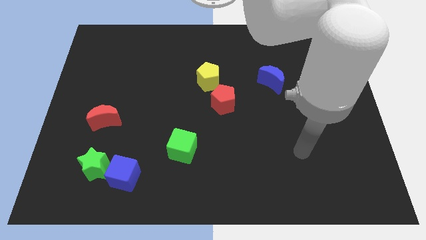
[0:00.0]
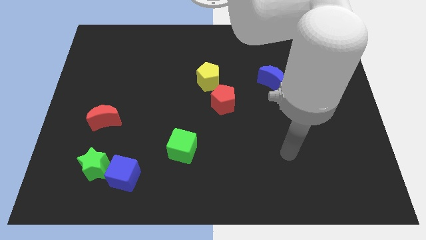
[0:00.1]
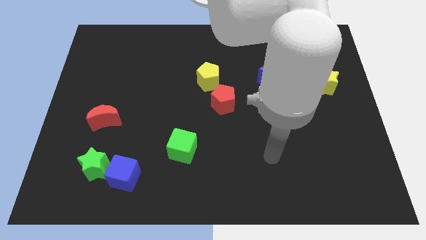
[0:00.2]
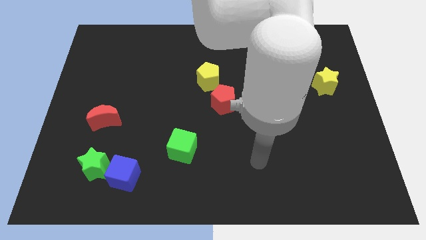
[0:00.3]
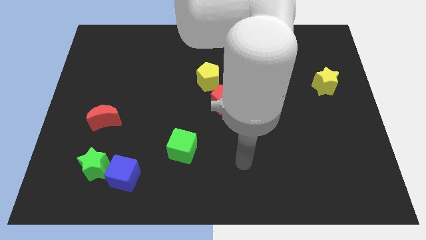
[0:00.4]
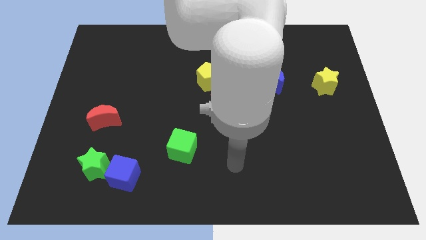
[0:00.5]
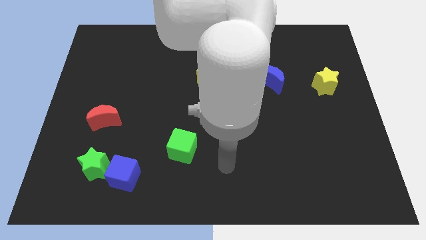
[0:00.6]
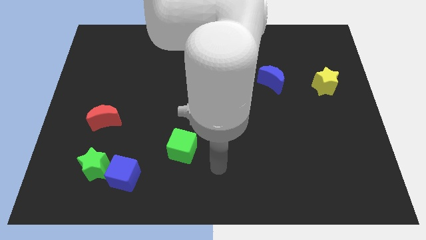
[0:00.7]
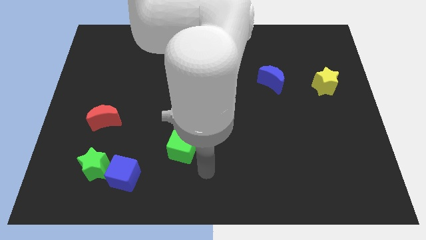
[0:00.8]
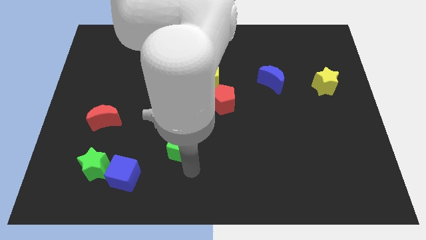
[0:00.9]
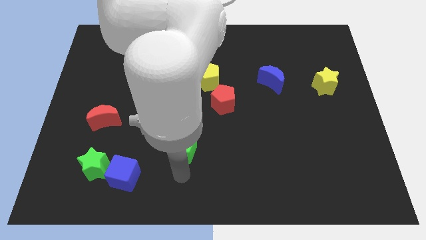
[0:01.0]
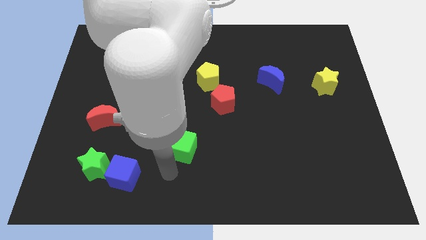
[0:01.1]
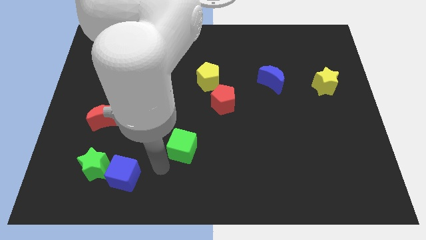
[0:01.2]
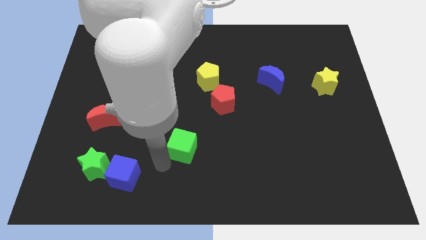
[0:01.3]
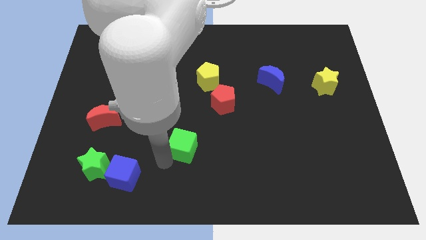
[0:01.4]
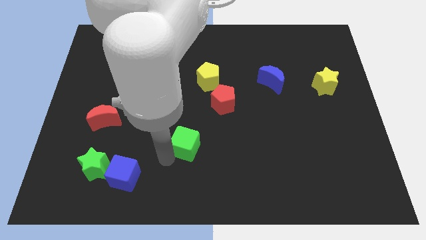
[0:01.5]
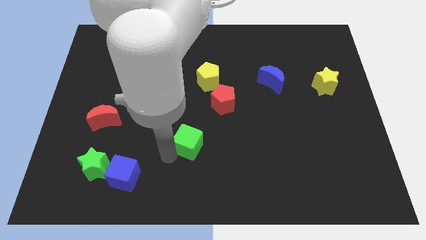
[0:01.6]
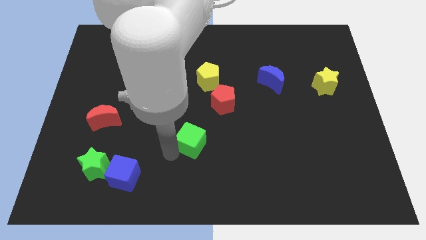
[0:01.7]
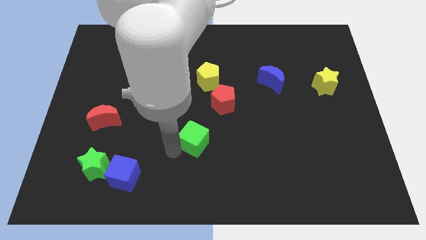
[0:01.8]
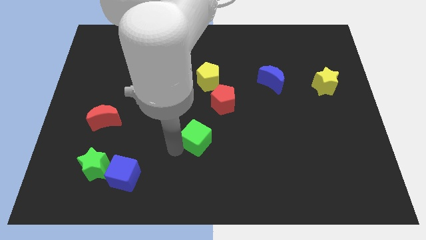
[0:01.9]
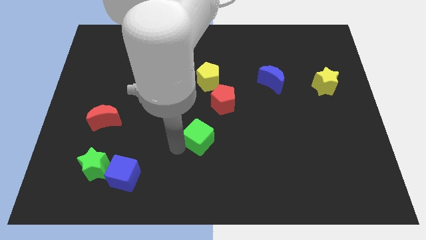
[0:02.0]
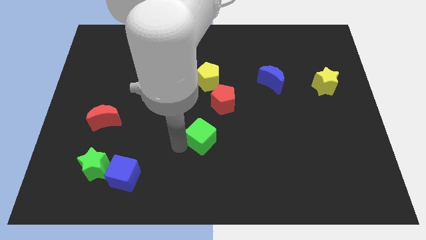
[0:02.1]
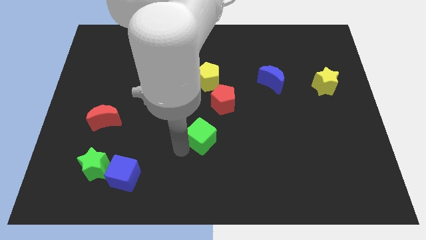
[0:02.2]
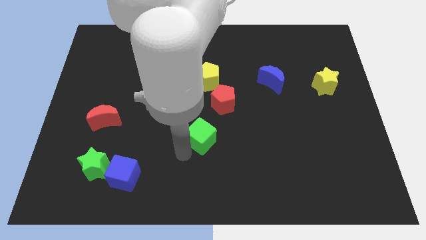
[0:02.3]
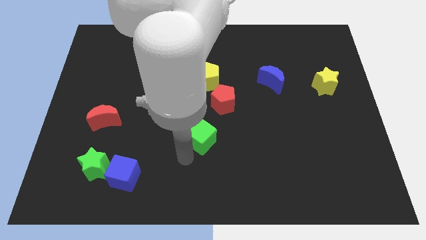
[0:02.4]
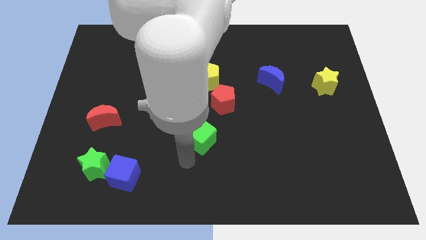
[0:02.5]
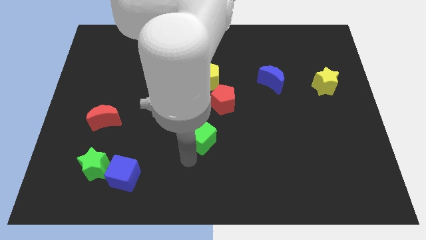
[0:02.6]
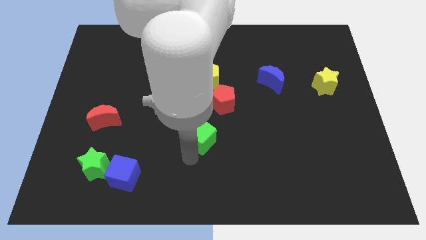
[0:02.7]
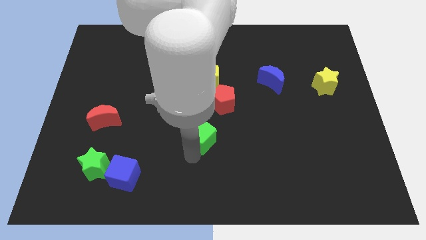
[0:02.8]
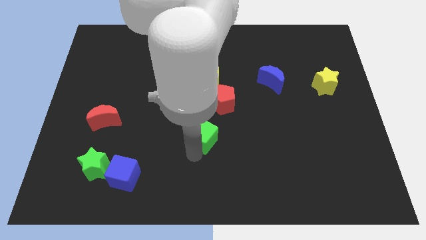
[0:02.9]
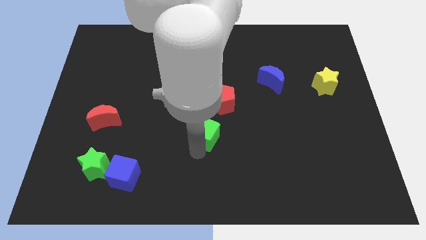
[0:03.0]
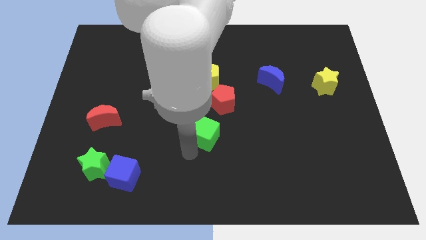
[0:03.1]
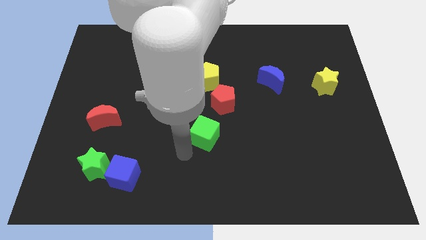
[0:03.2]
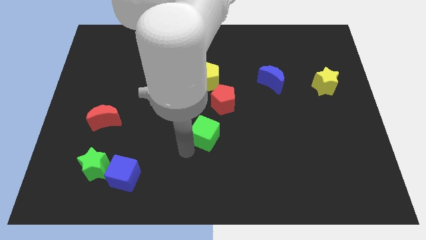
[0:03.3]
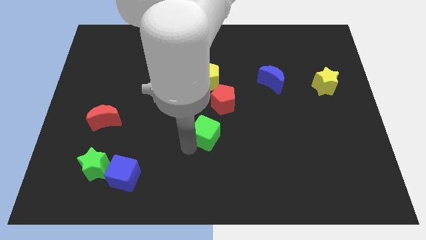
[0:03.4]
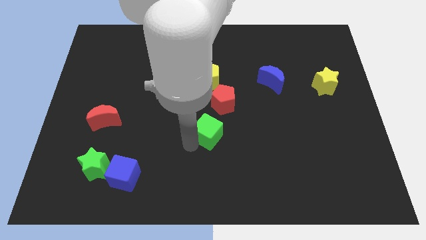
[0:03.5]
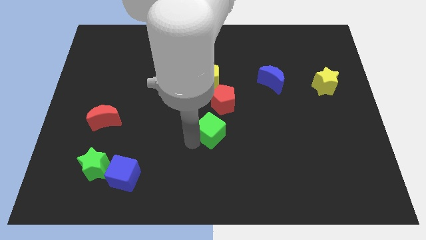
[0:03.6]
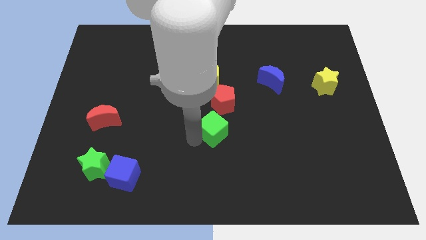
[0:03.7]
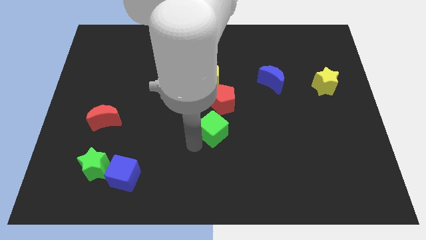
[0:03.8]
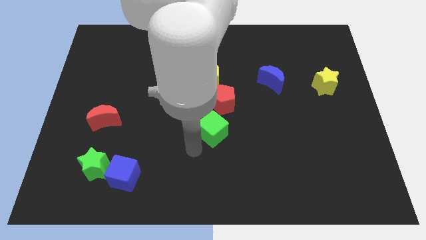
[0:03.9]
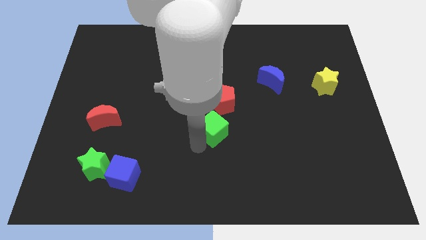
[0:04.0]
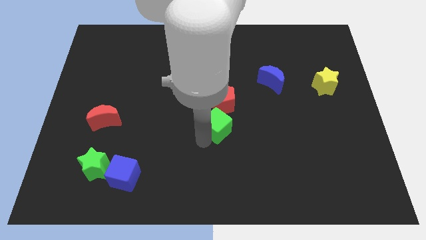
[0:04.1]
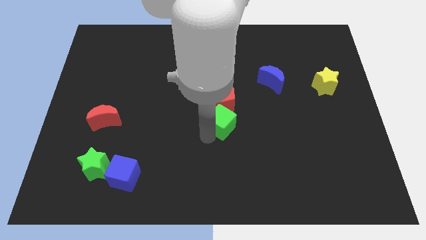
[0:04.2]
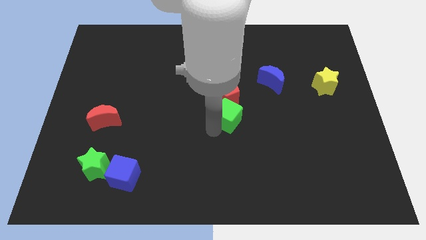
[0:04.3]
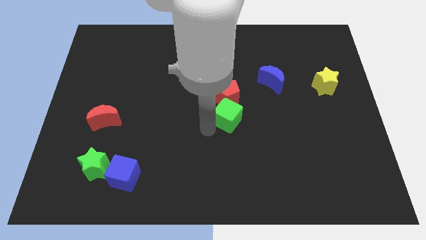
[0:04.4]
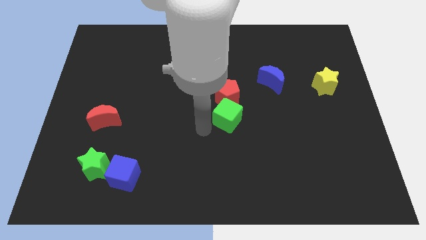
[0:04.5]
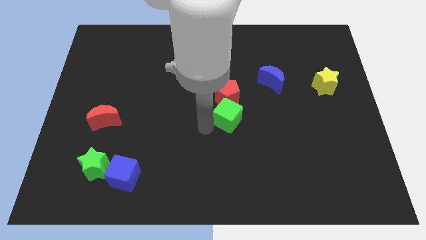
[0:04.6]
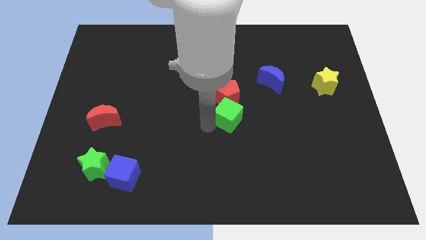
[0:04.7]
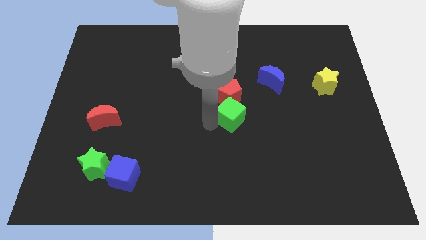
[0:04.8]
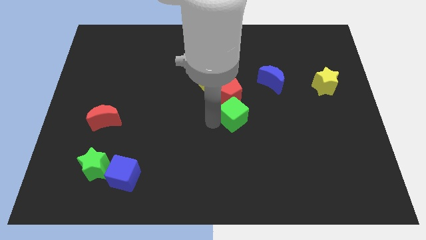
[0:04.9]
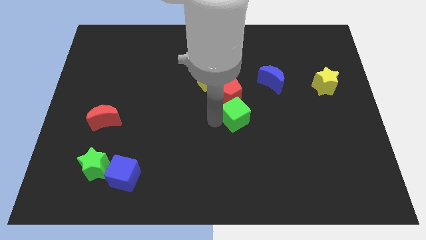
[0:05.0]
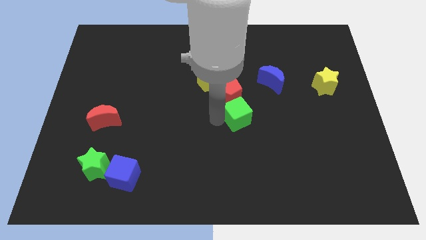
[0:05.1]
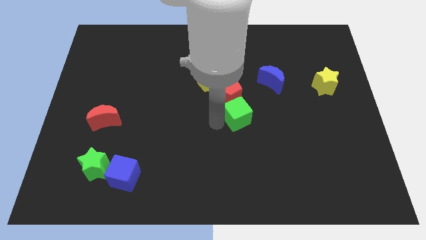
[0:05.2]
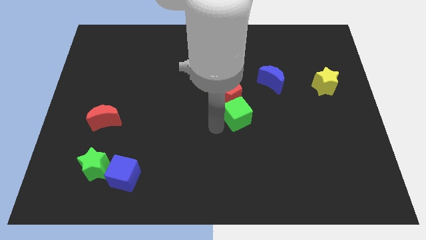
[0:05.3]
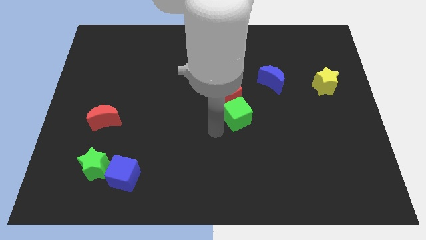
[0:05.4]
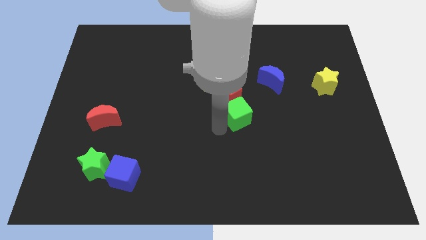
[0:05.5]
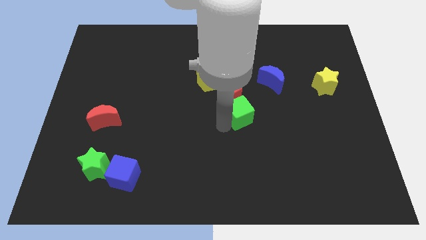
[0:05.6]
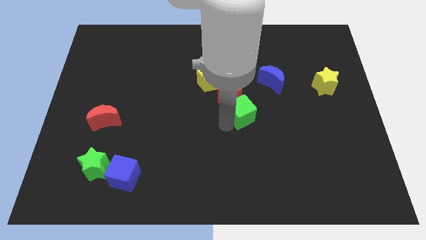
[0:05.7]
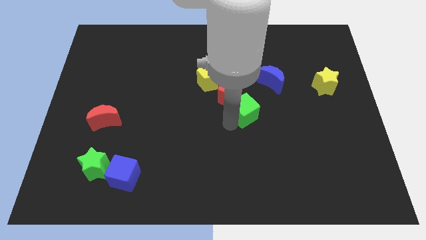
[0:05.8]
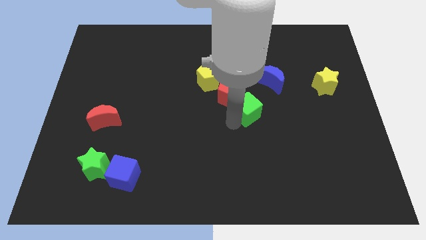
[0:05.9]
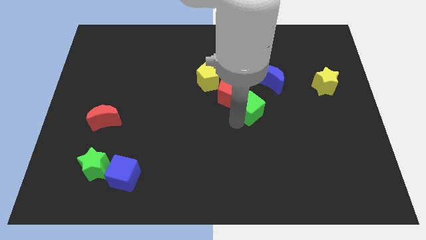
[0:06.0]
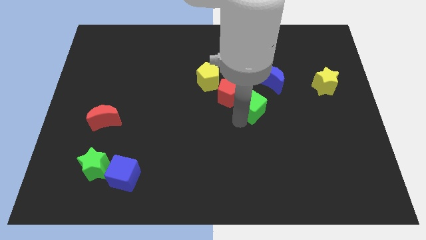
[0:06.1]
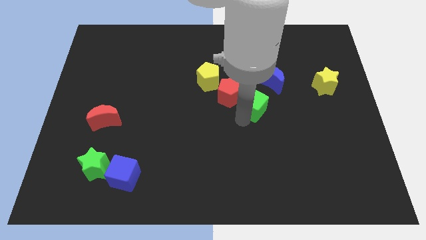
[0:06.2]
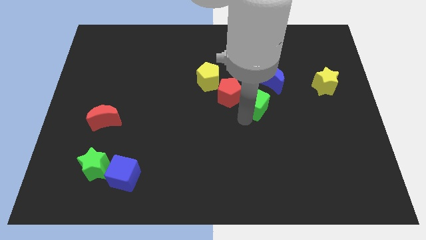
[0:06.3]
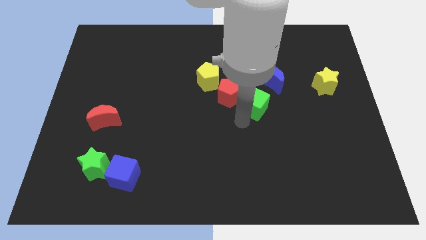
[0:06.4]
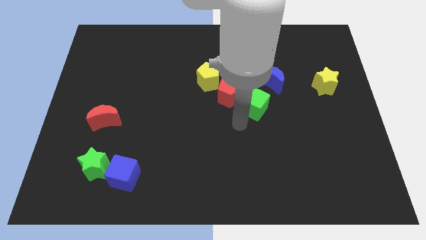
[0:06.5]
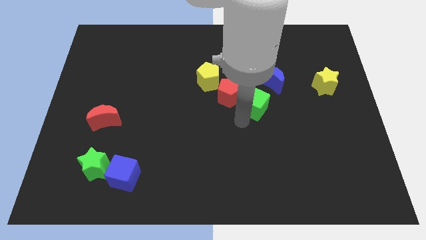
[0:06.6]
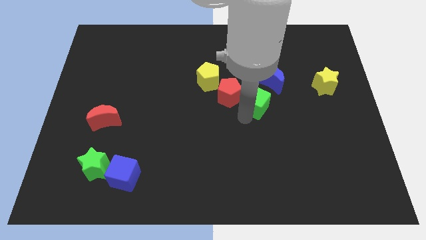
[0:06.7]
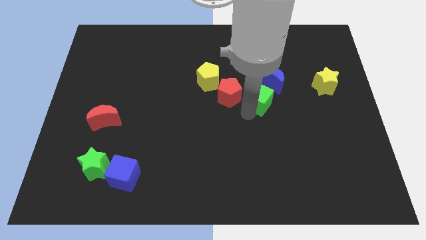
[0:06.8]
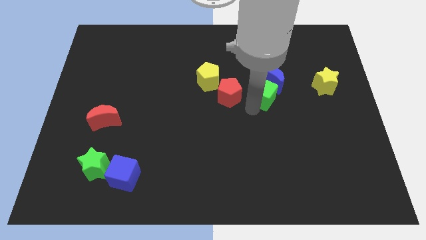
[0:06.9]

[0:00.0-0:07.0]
slide the green cube next to the blue moon
